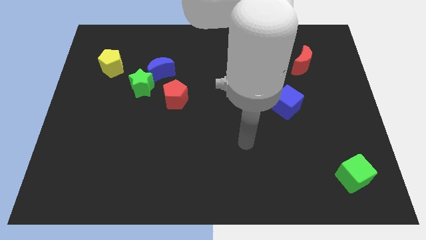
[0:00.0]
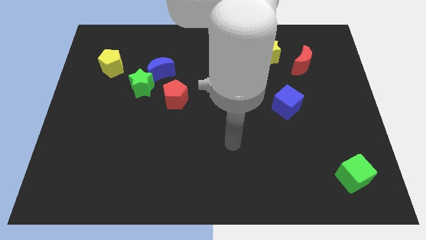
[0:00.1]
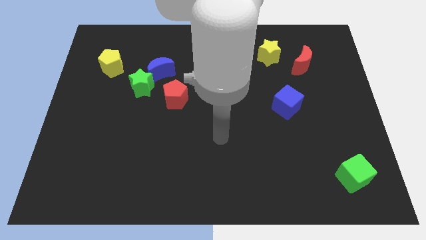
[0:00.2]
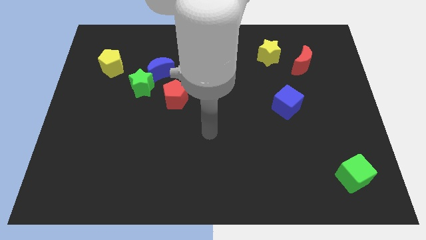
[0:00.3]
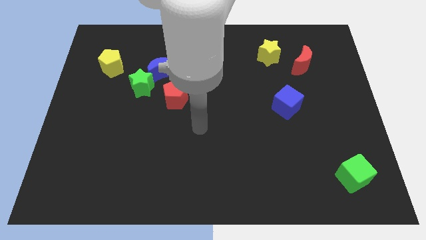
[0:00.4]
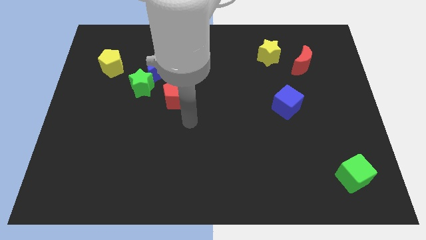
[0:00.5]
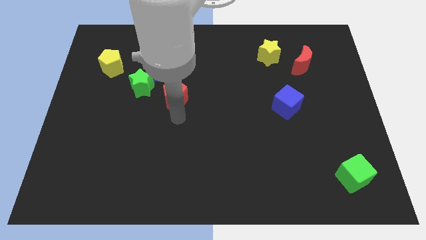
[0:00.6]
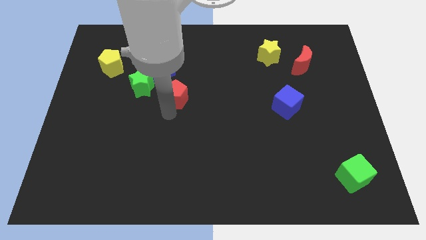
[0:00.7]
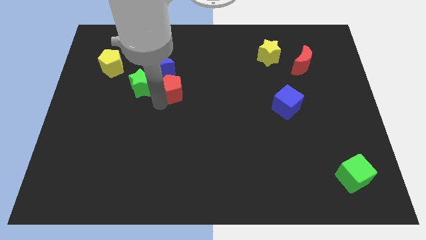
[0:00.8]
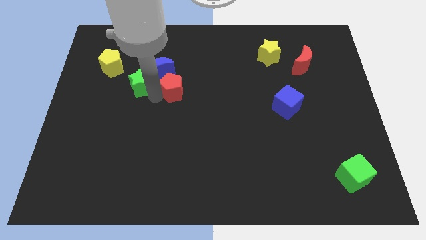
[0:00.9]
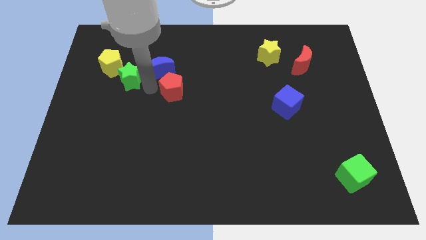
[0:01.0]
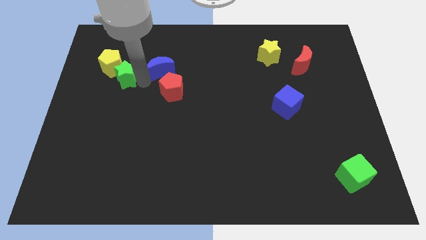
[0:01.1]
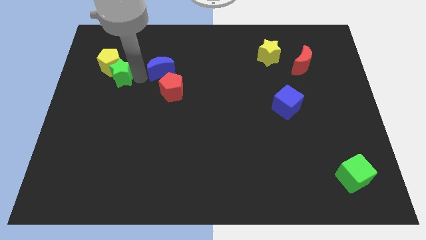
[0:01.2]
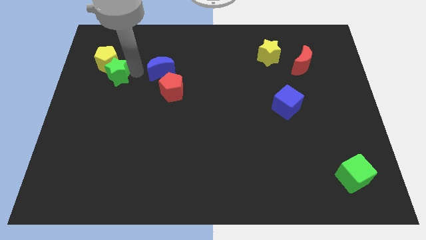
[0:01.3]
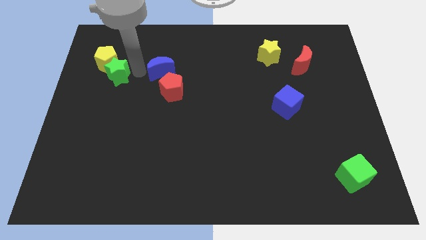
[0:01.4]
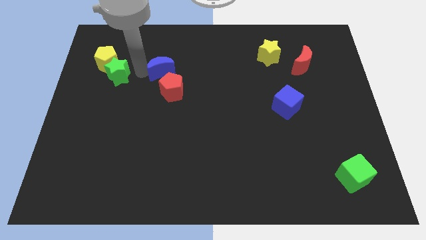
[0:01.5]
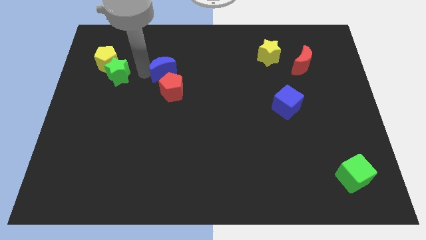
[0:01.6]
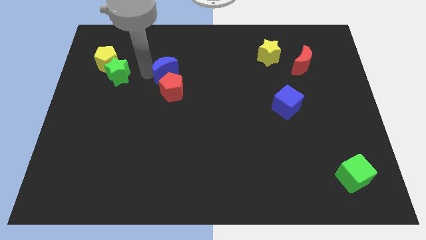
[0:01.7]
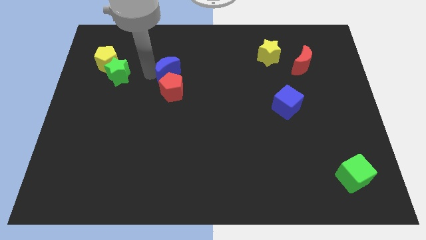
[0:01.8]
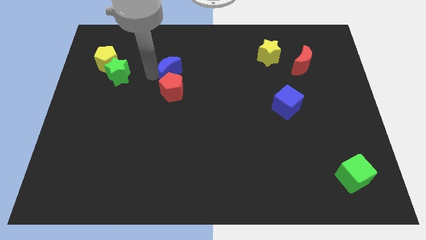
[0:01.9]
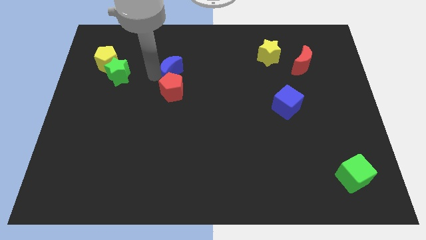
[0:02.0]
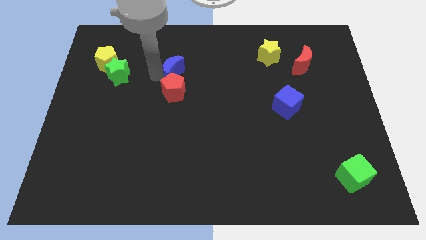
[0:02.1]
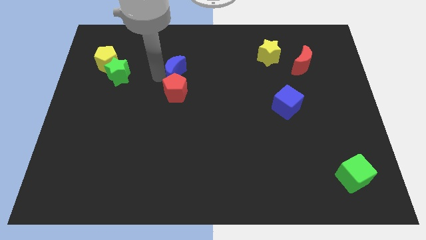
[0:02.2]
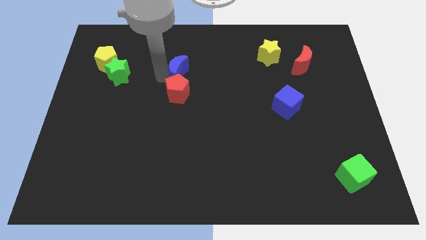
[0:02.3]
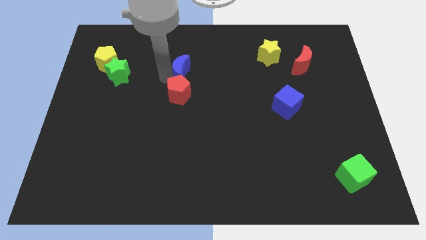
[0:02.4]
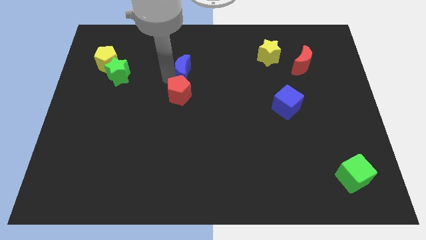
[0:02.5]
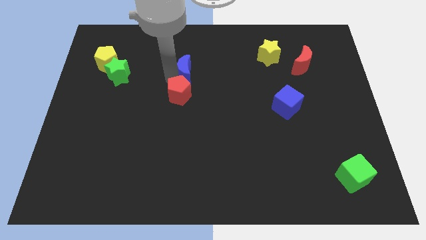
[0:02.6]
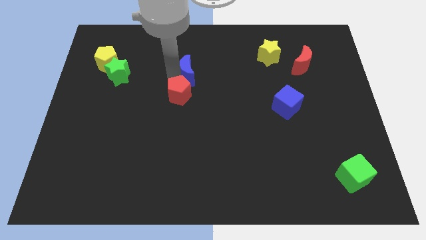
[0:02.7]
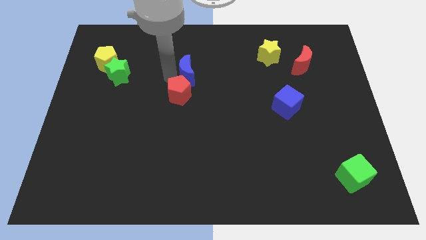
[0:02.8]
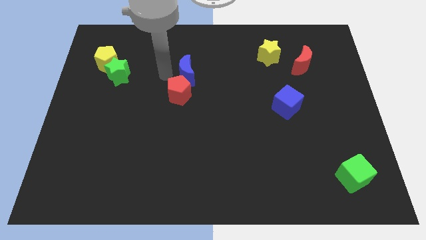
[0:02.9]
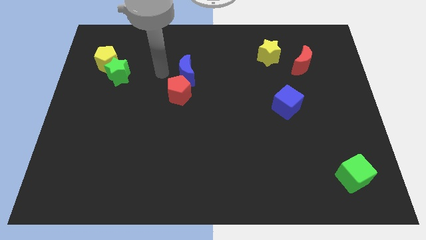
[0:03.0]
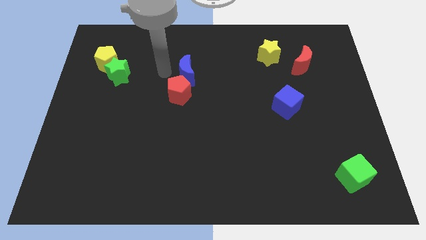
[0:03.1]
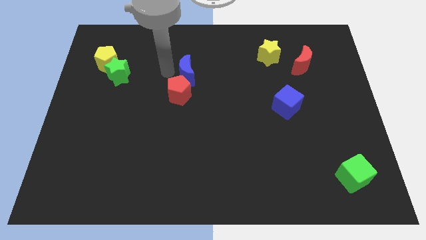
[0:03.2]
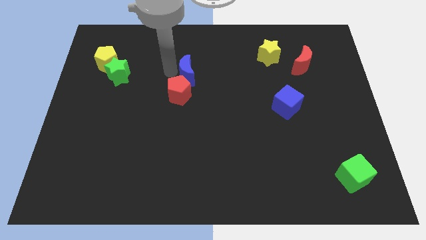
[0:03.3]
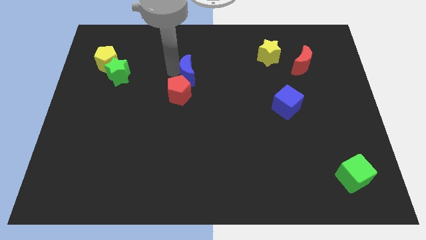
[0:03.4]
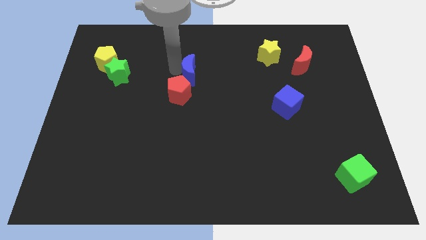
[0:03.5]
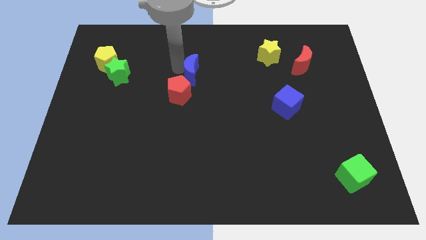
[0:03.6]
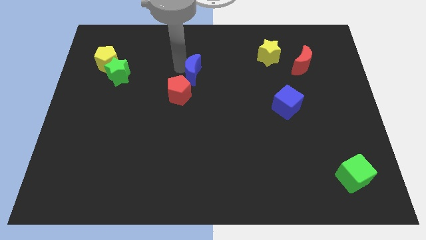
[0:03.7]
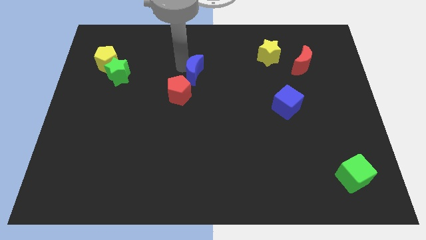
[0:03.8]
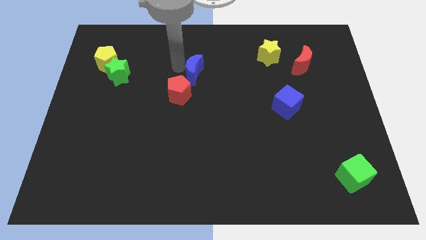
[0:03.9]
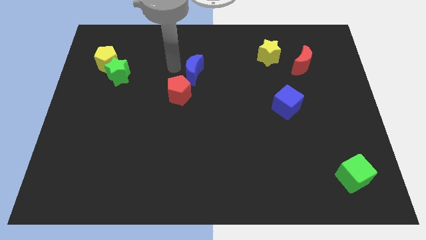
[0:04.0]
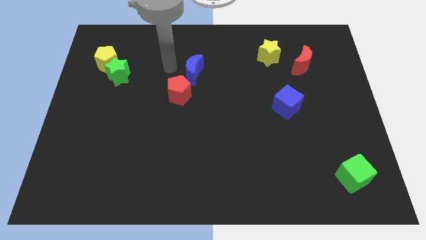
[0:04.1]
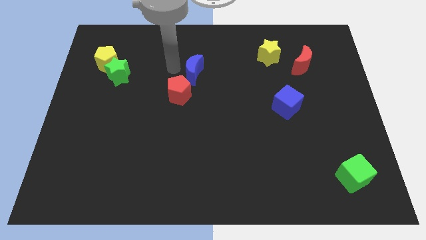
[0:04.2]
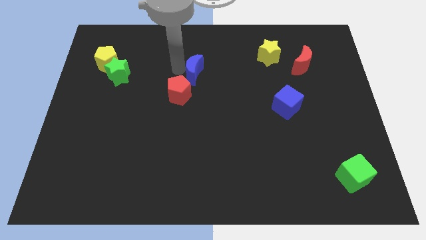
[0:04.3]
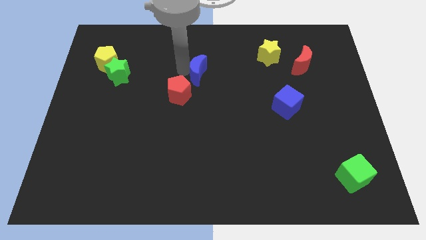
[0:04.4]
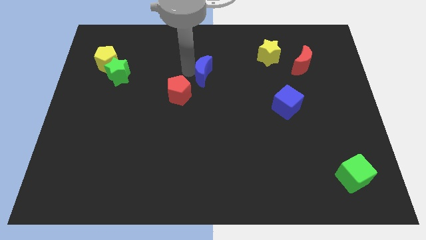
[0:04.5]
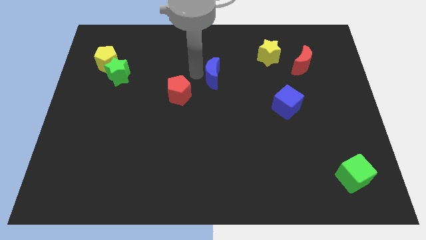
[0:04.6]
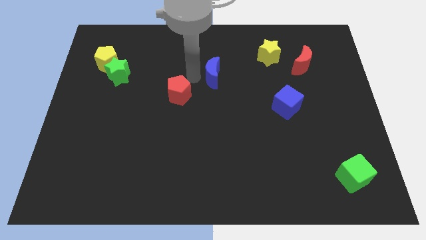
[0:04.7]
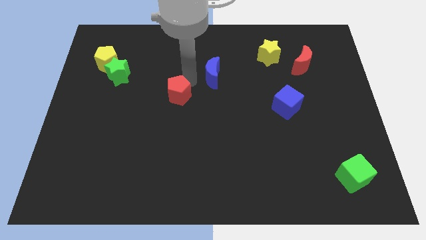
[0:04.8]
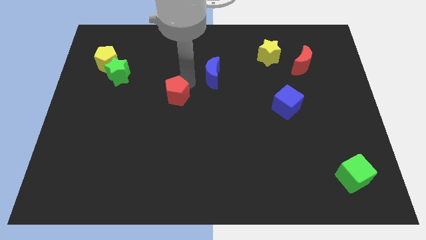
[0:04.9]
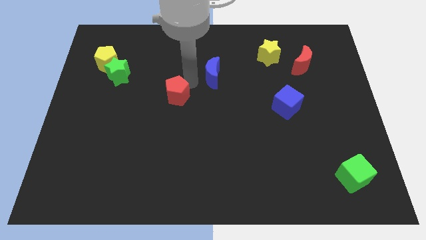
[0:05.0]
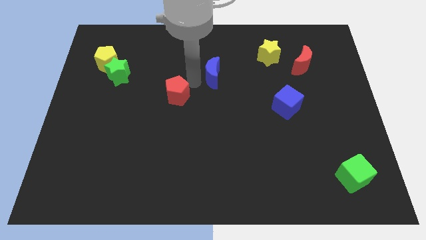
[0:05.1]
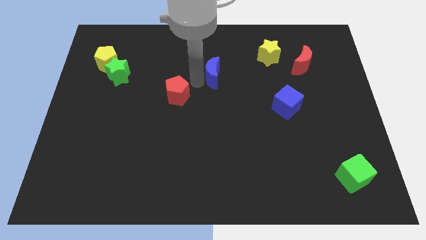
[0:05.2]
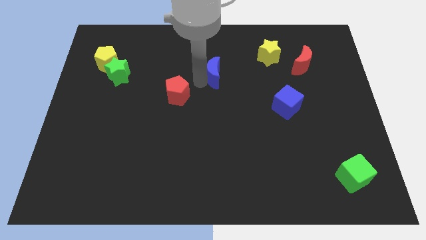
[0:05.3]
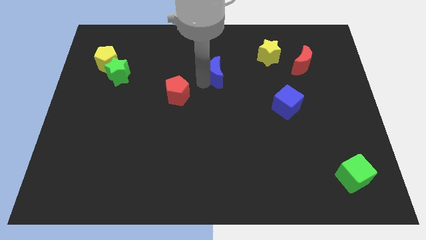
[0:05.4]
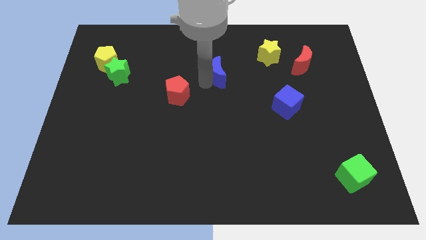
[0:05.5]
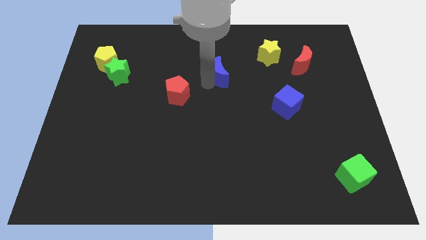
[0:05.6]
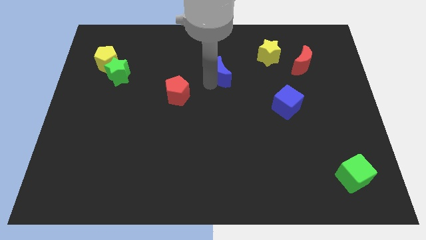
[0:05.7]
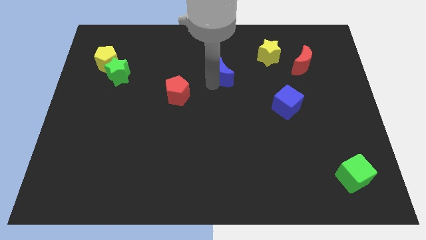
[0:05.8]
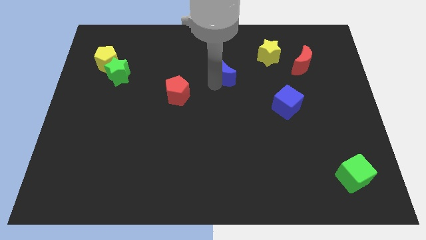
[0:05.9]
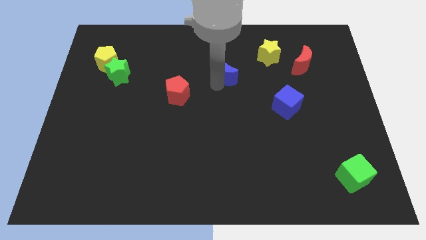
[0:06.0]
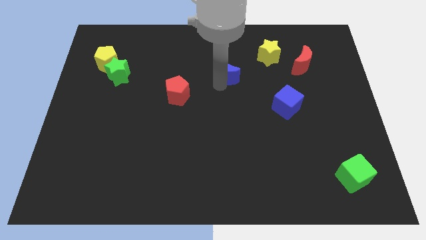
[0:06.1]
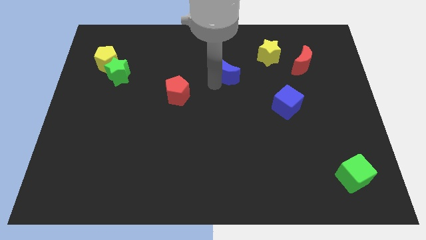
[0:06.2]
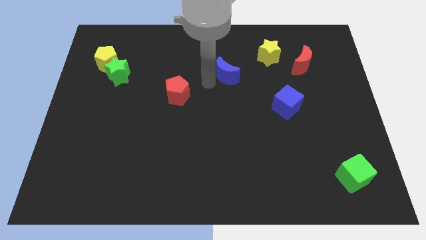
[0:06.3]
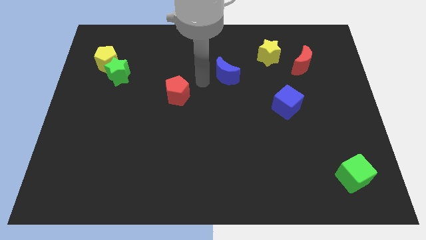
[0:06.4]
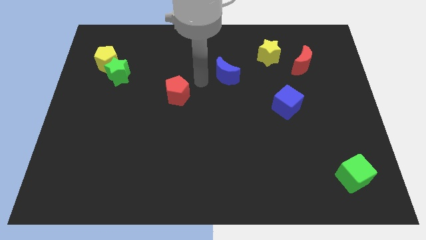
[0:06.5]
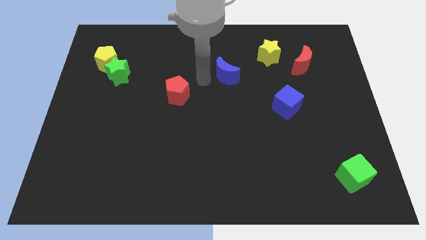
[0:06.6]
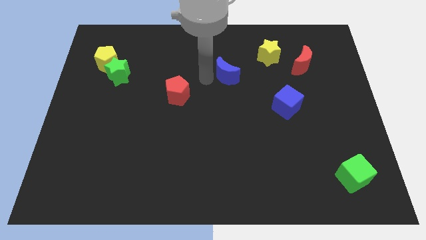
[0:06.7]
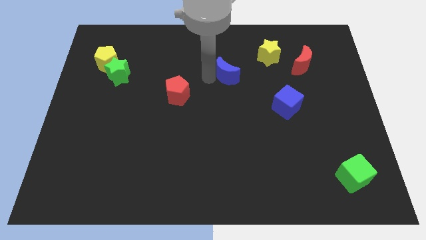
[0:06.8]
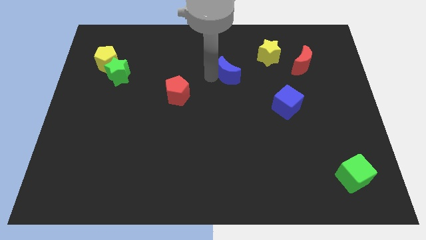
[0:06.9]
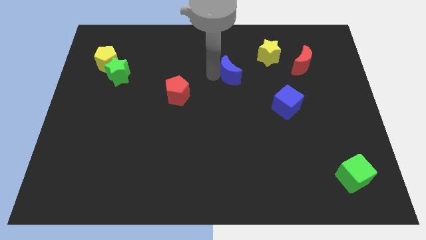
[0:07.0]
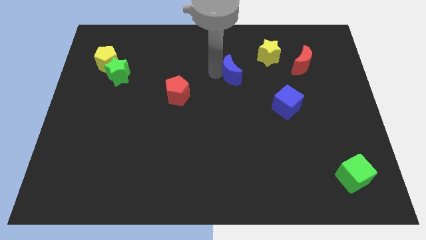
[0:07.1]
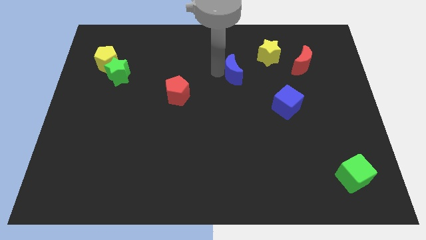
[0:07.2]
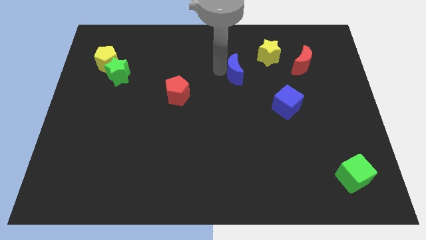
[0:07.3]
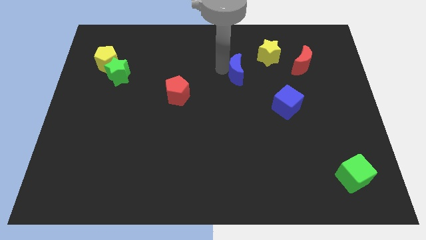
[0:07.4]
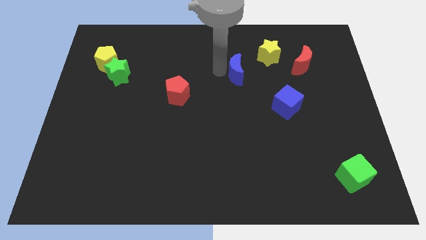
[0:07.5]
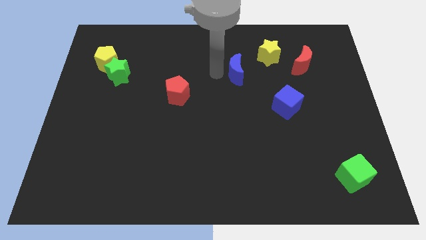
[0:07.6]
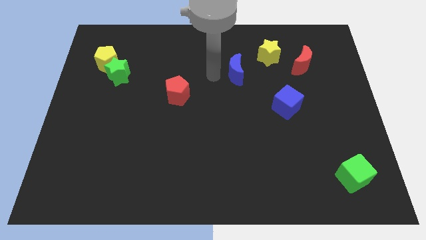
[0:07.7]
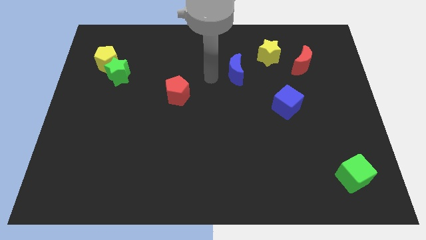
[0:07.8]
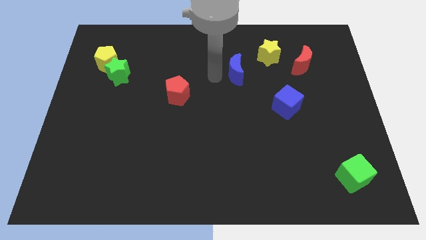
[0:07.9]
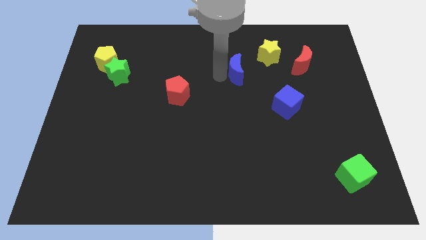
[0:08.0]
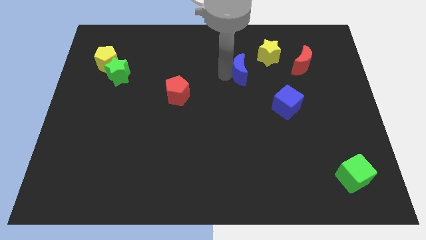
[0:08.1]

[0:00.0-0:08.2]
move the blue moon to the right
